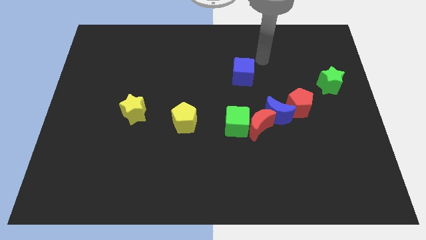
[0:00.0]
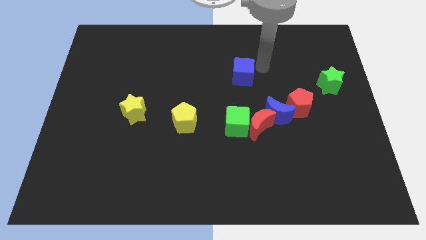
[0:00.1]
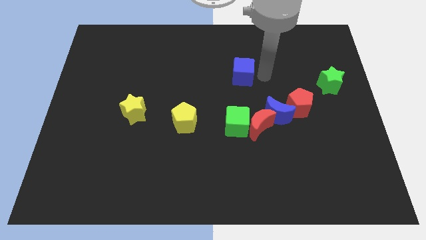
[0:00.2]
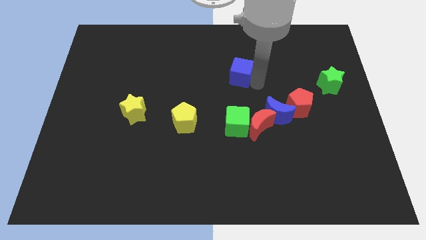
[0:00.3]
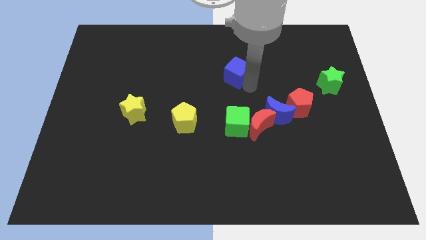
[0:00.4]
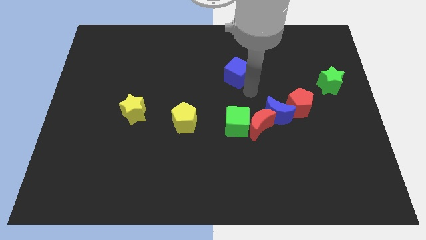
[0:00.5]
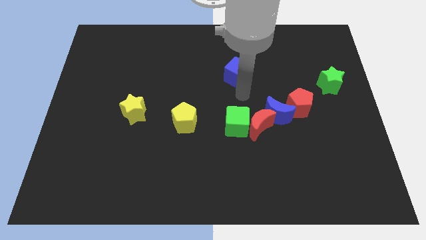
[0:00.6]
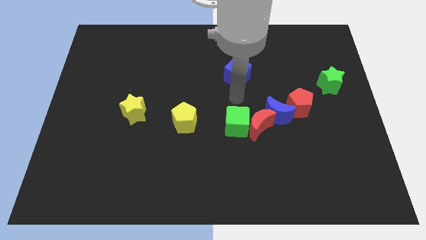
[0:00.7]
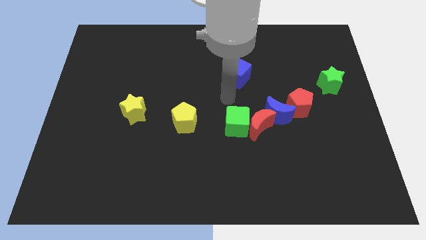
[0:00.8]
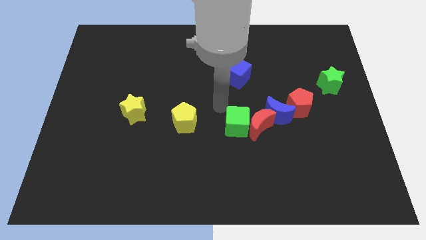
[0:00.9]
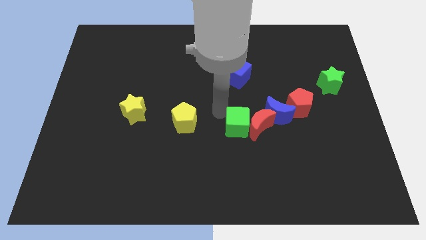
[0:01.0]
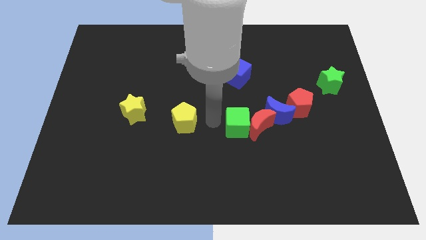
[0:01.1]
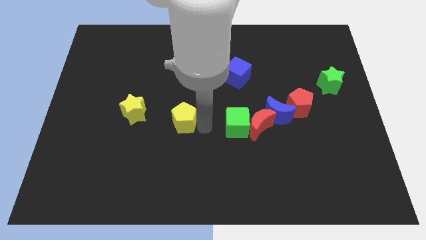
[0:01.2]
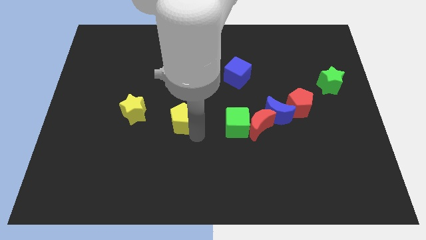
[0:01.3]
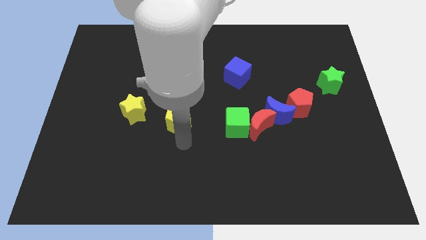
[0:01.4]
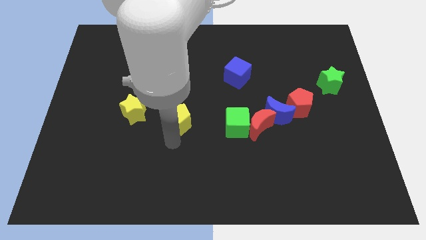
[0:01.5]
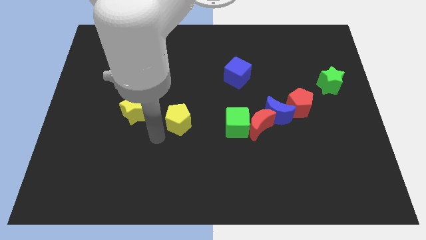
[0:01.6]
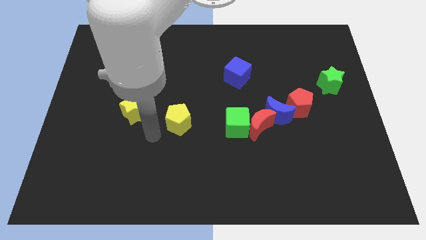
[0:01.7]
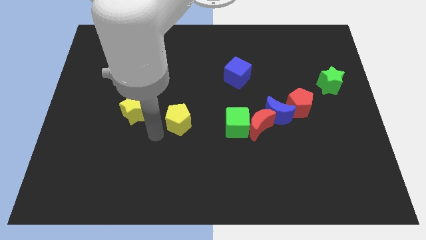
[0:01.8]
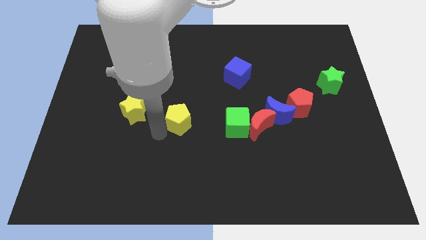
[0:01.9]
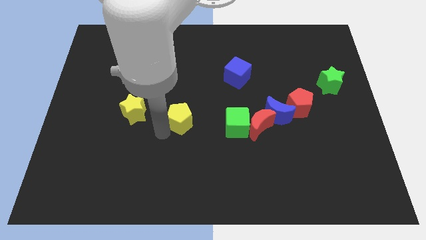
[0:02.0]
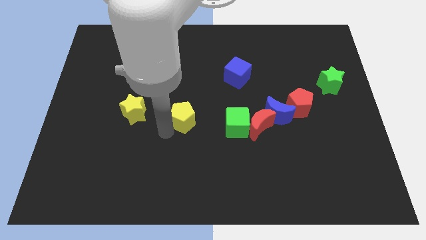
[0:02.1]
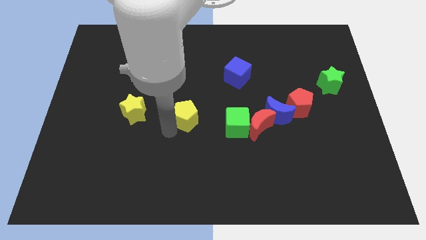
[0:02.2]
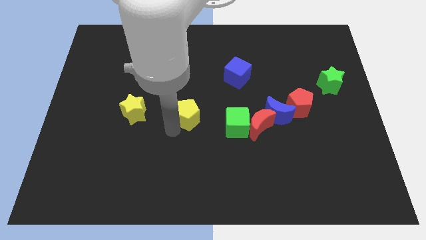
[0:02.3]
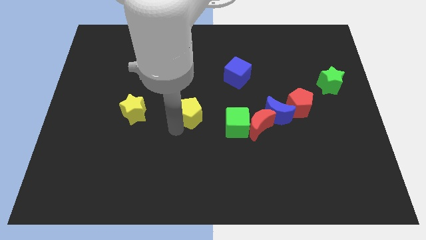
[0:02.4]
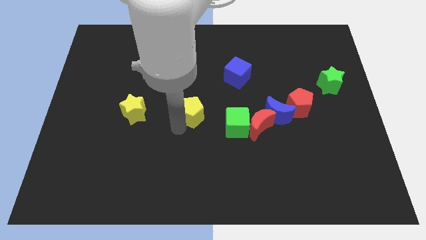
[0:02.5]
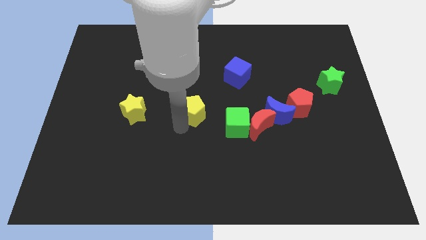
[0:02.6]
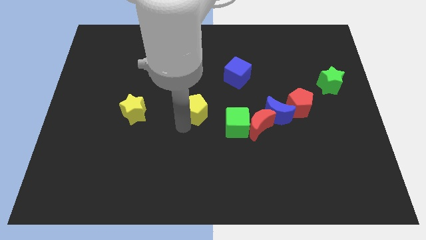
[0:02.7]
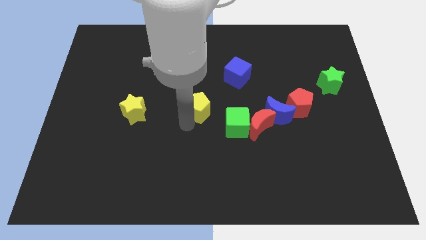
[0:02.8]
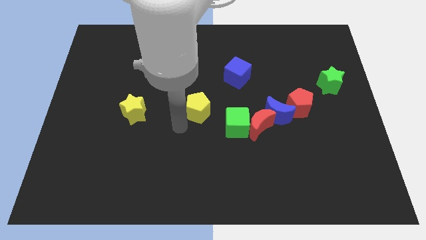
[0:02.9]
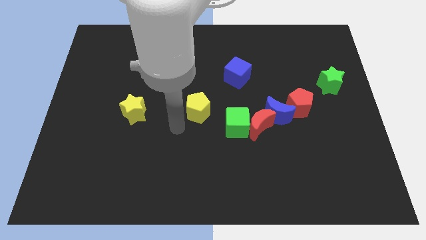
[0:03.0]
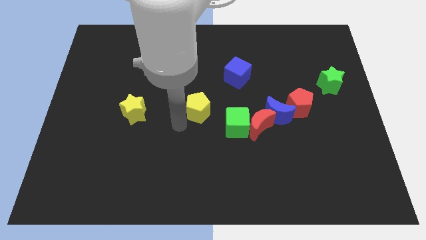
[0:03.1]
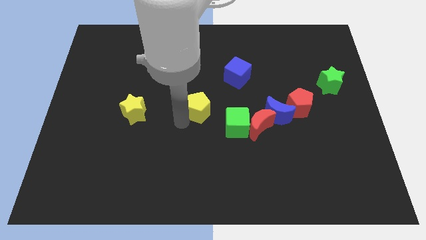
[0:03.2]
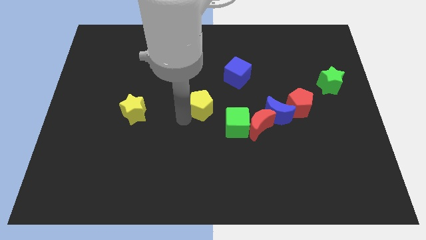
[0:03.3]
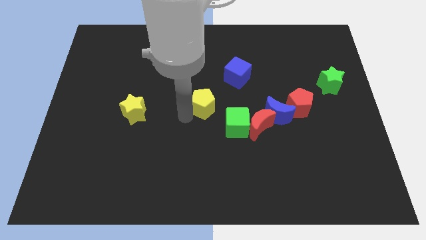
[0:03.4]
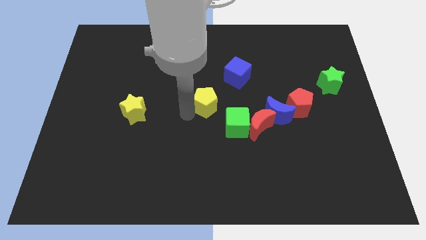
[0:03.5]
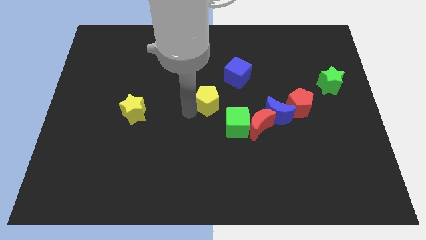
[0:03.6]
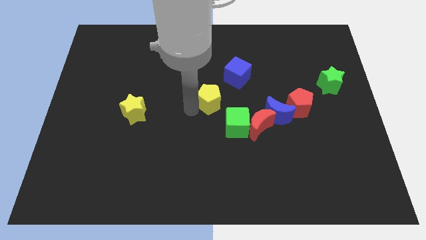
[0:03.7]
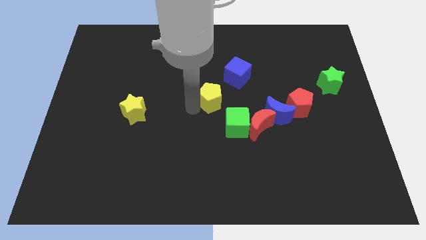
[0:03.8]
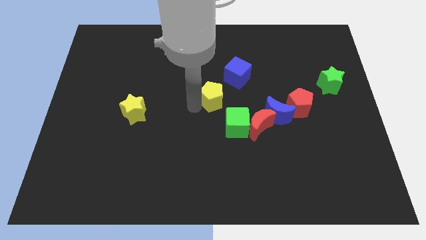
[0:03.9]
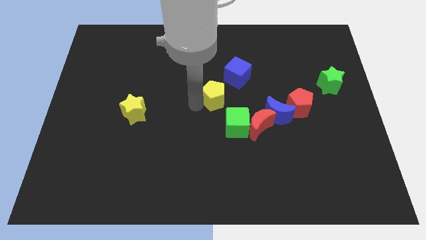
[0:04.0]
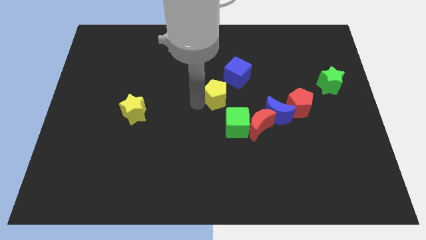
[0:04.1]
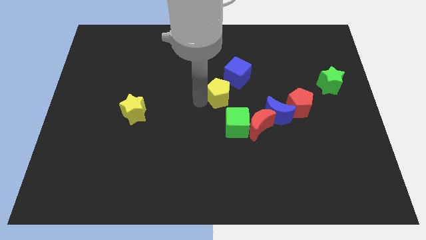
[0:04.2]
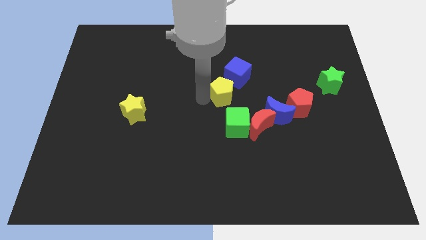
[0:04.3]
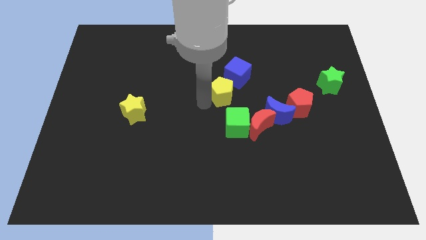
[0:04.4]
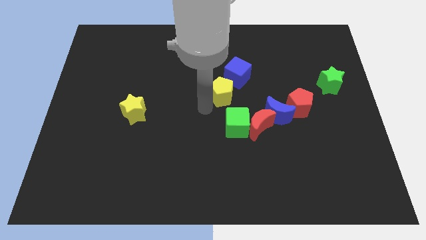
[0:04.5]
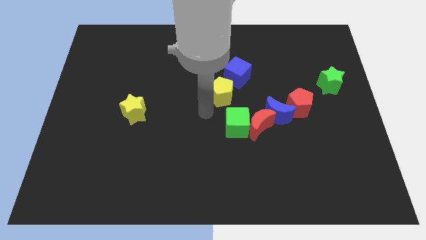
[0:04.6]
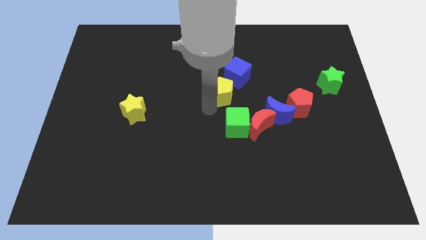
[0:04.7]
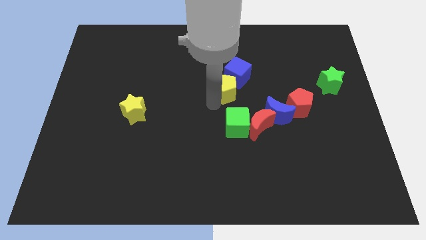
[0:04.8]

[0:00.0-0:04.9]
put the yellow pentagon next to the blue cube

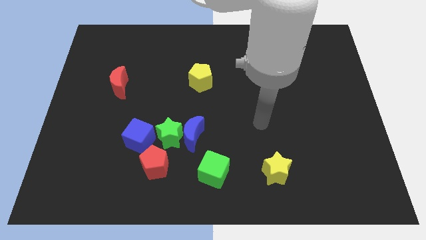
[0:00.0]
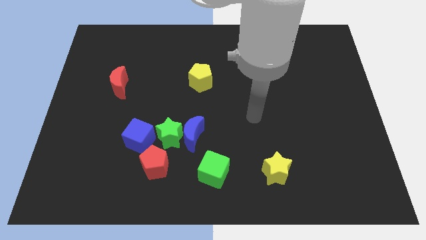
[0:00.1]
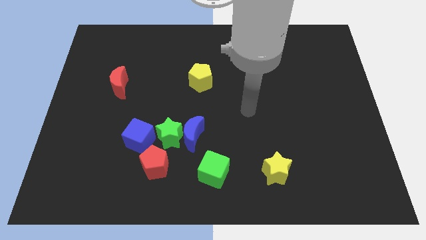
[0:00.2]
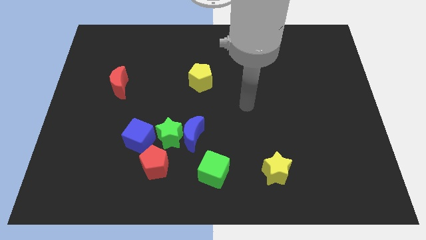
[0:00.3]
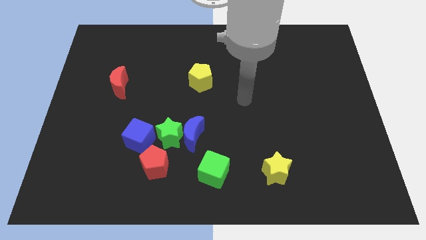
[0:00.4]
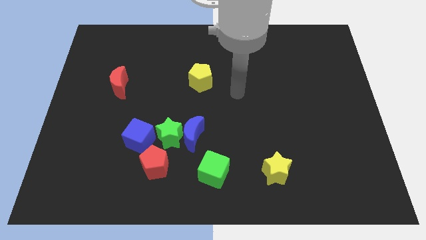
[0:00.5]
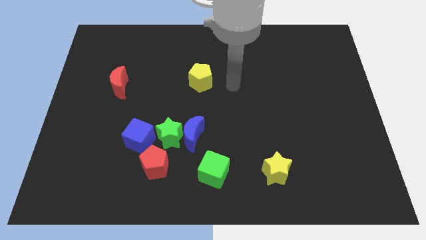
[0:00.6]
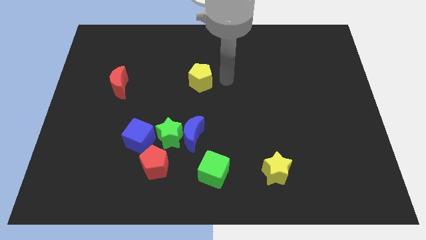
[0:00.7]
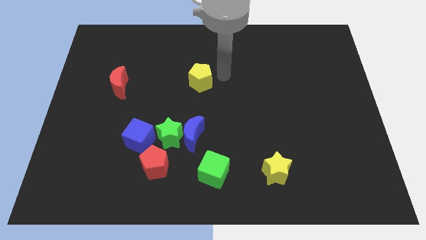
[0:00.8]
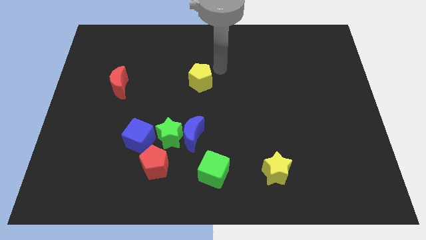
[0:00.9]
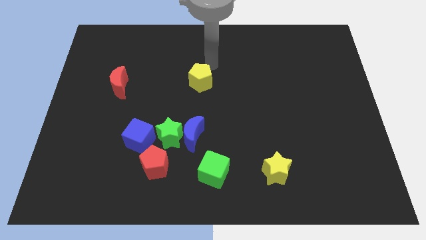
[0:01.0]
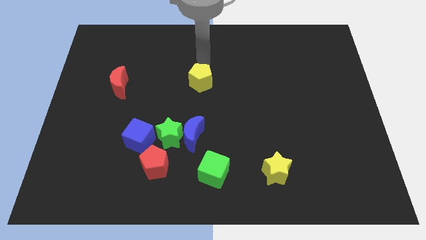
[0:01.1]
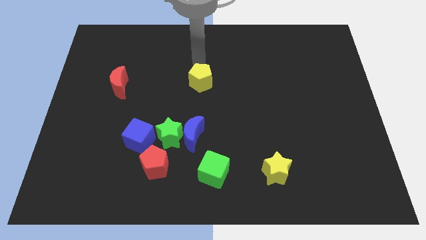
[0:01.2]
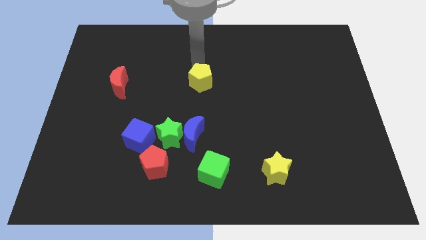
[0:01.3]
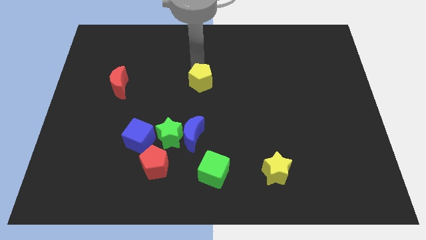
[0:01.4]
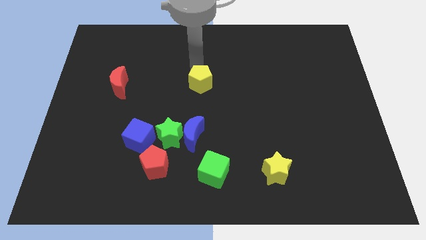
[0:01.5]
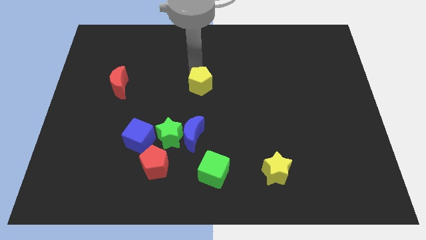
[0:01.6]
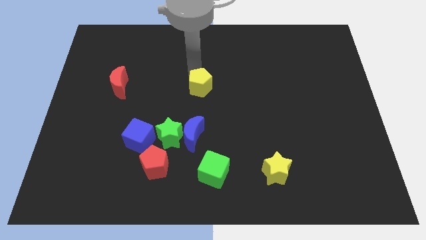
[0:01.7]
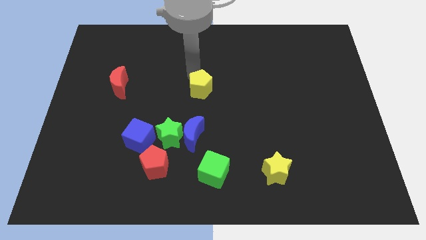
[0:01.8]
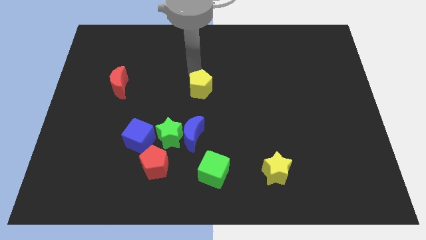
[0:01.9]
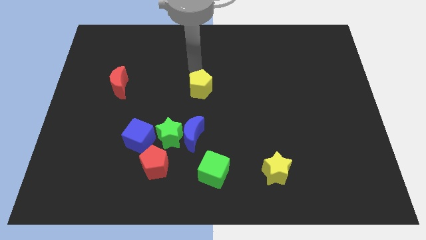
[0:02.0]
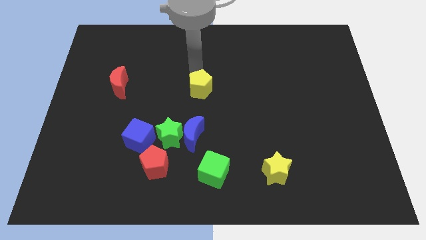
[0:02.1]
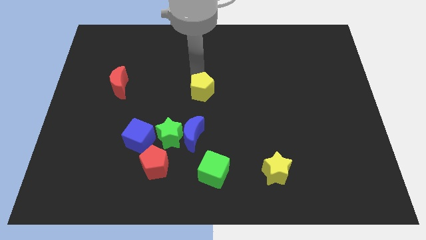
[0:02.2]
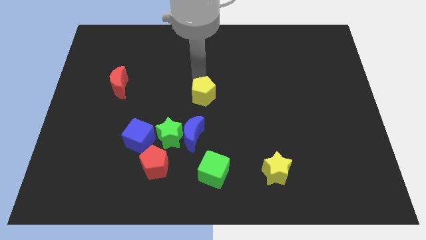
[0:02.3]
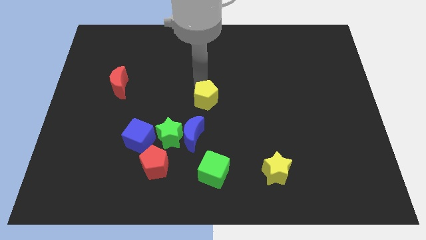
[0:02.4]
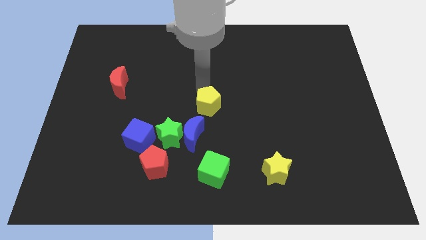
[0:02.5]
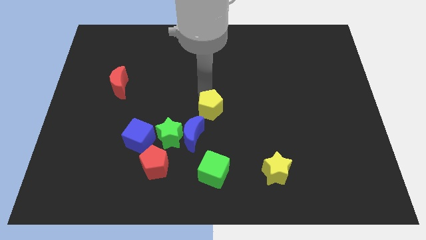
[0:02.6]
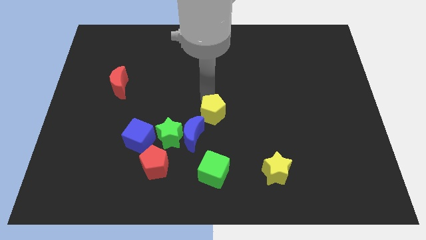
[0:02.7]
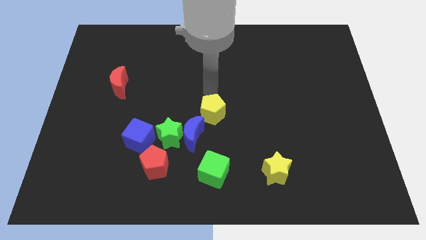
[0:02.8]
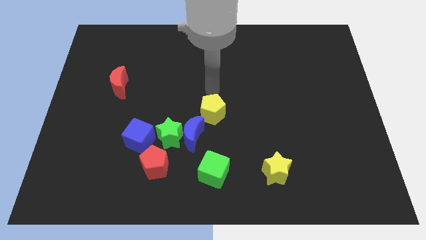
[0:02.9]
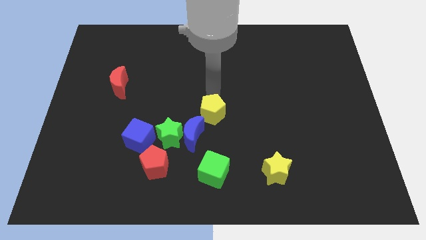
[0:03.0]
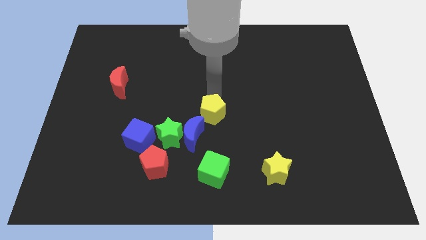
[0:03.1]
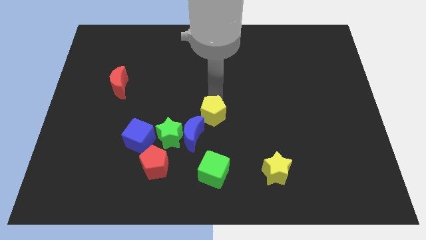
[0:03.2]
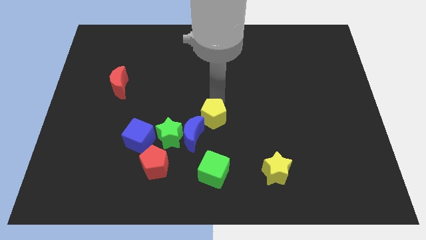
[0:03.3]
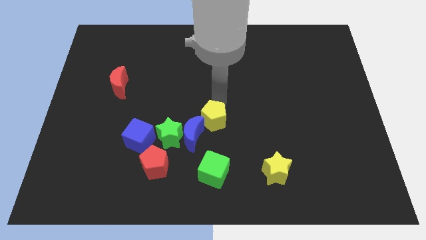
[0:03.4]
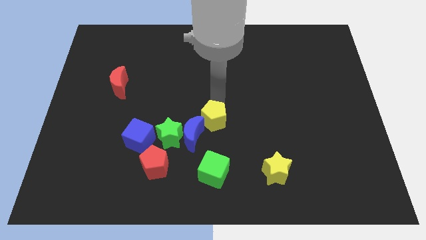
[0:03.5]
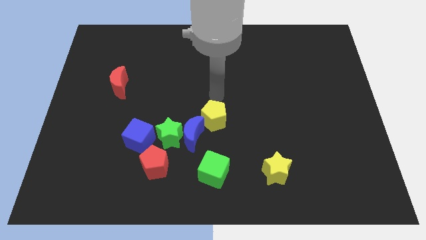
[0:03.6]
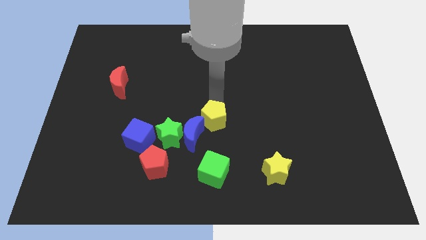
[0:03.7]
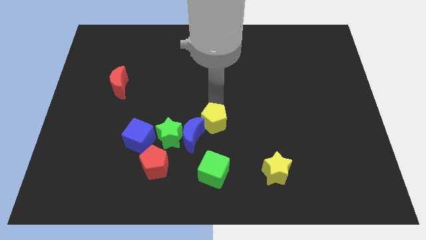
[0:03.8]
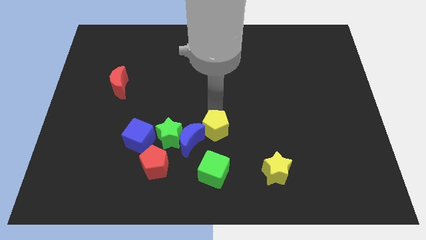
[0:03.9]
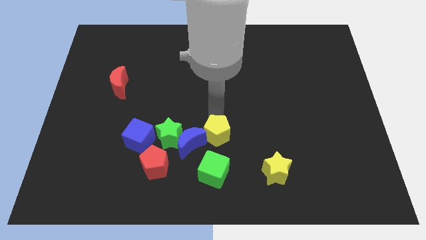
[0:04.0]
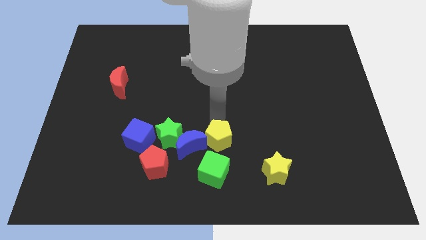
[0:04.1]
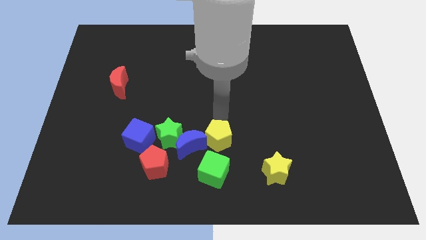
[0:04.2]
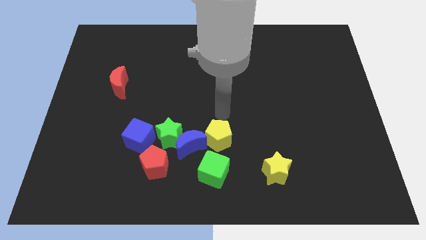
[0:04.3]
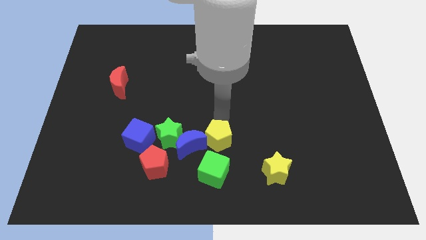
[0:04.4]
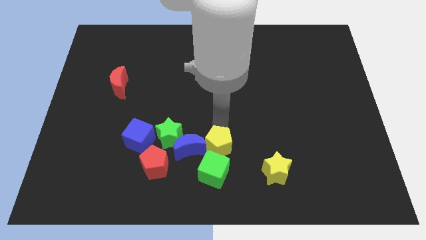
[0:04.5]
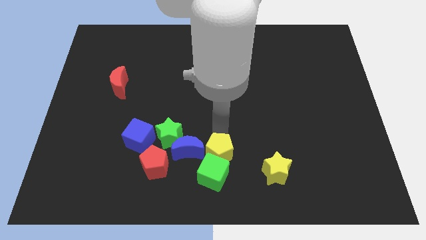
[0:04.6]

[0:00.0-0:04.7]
slide the yellow pentagon close to the green cube
